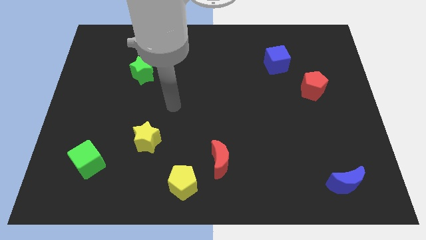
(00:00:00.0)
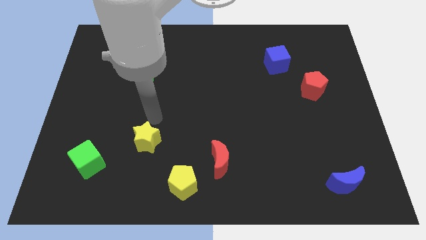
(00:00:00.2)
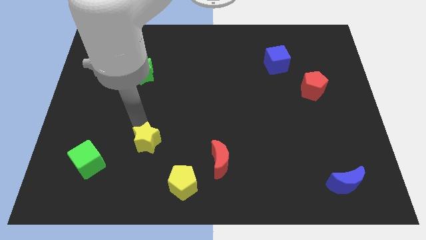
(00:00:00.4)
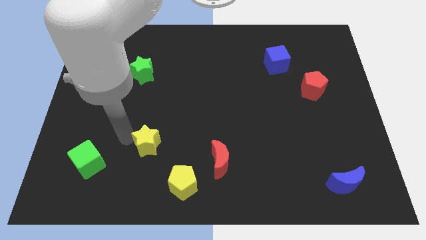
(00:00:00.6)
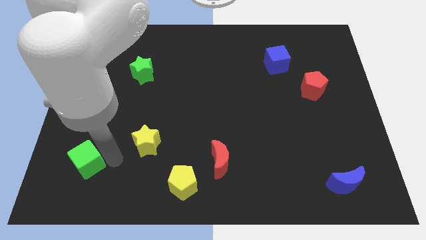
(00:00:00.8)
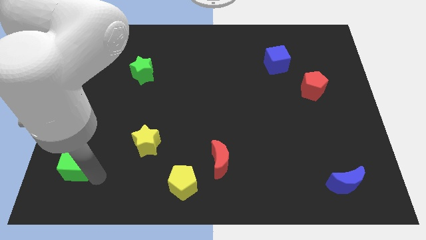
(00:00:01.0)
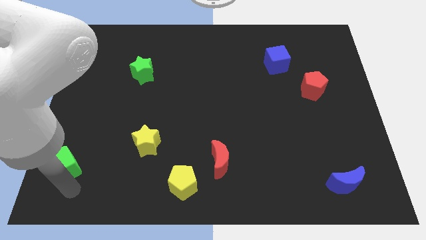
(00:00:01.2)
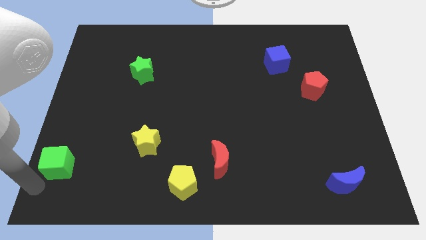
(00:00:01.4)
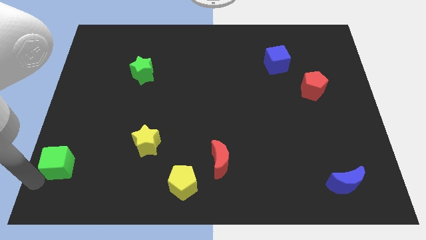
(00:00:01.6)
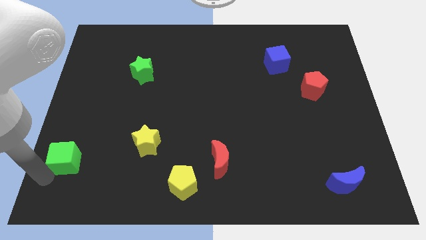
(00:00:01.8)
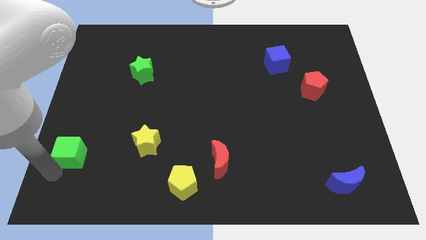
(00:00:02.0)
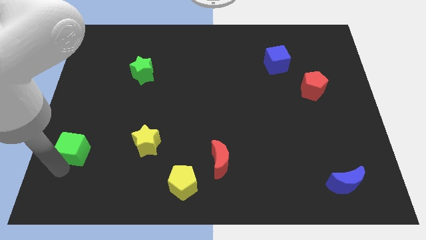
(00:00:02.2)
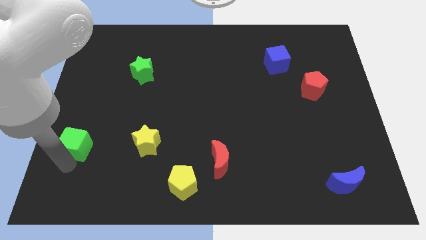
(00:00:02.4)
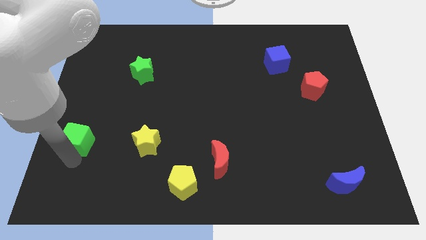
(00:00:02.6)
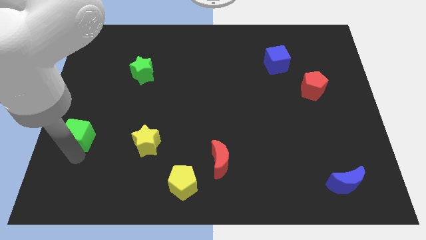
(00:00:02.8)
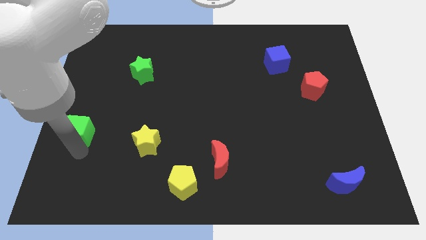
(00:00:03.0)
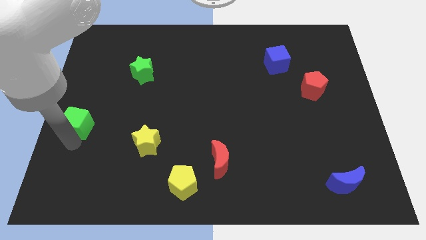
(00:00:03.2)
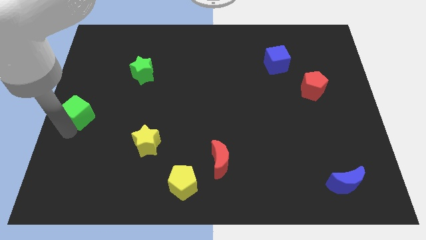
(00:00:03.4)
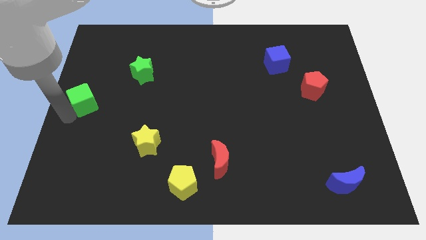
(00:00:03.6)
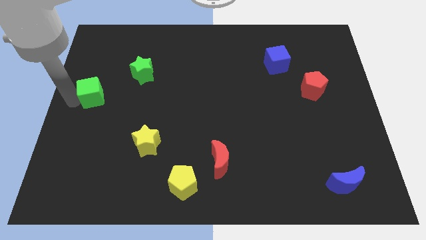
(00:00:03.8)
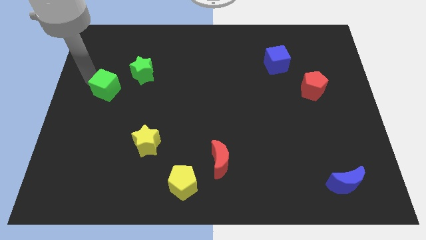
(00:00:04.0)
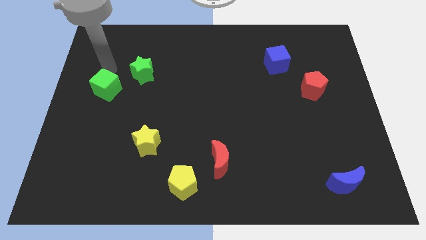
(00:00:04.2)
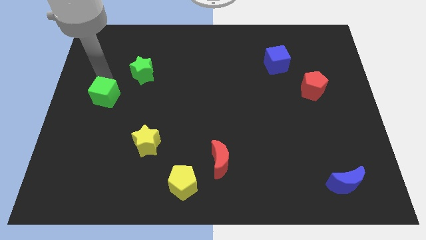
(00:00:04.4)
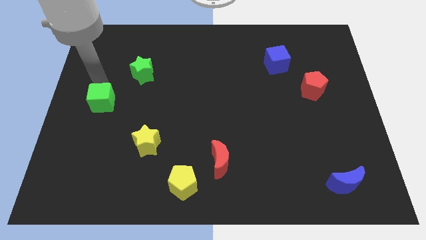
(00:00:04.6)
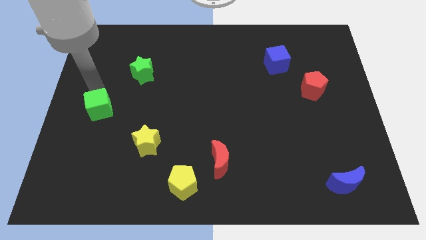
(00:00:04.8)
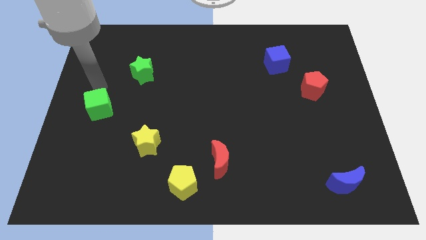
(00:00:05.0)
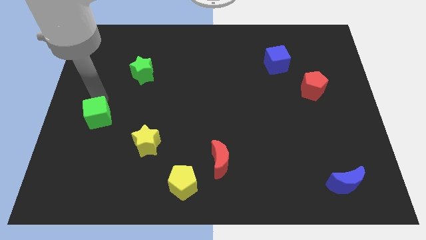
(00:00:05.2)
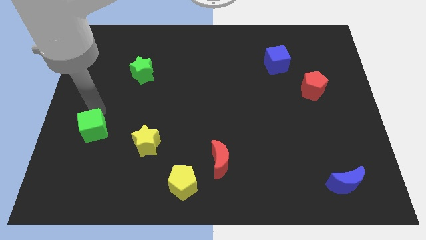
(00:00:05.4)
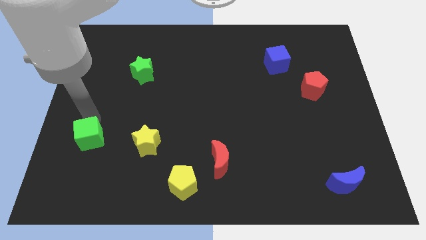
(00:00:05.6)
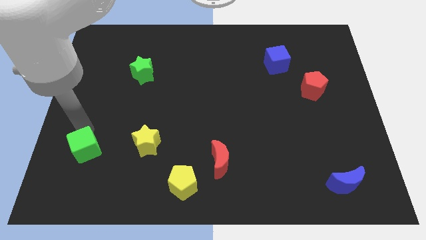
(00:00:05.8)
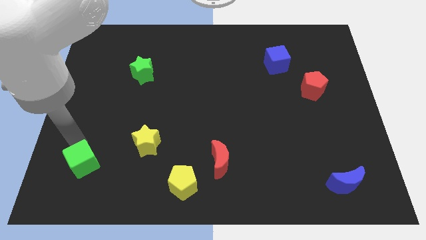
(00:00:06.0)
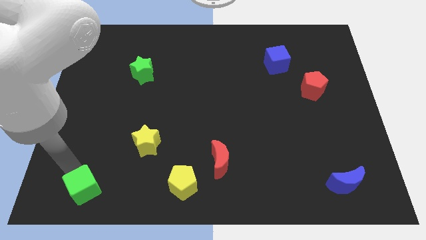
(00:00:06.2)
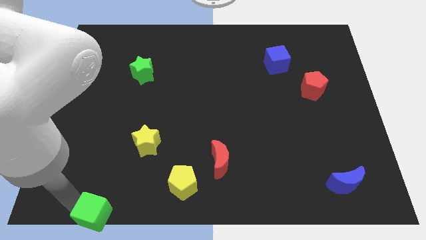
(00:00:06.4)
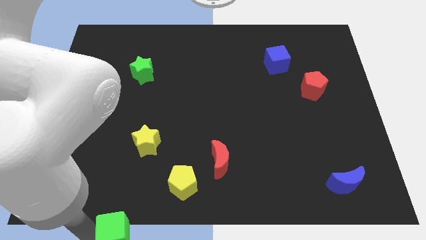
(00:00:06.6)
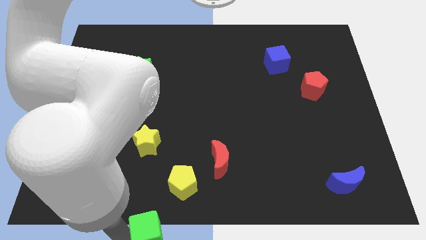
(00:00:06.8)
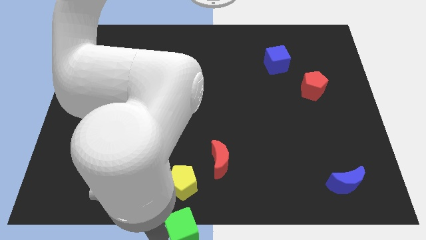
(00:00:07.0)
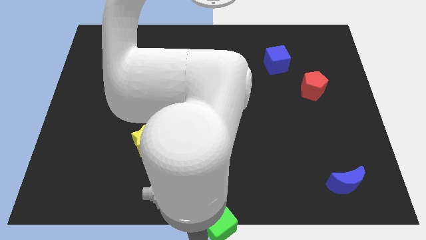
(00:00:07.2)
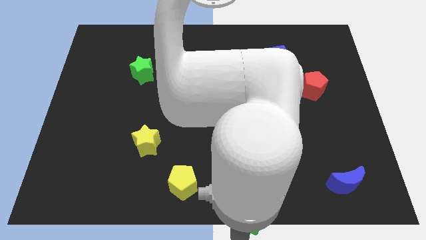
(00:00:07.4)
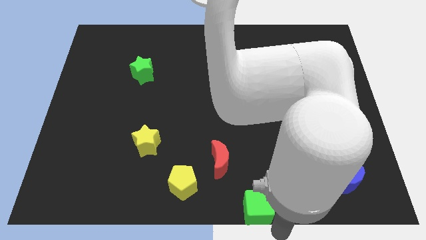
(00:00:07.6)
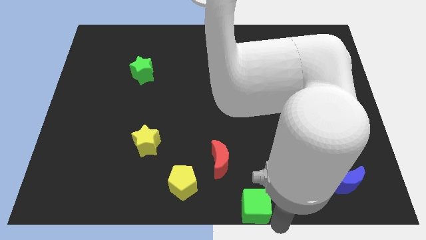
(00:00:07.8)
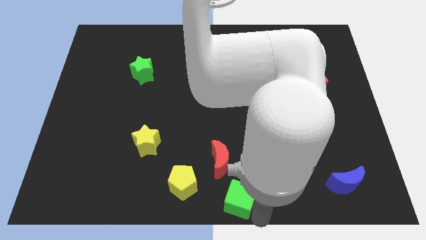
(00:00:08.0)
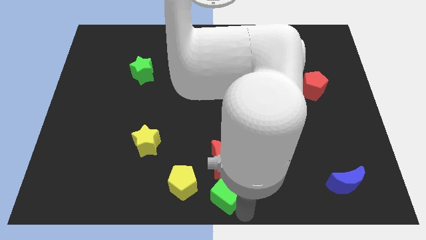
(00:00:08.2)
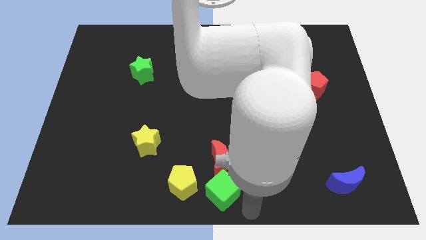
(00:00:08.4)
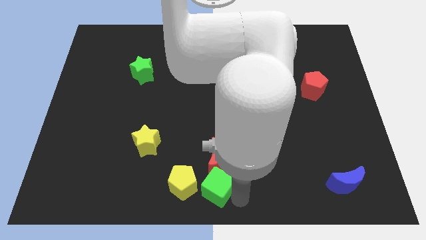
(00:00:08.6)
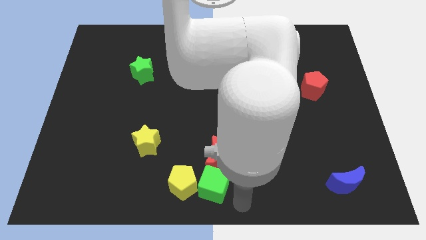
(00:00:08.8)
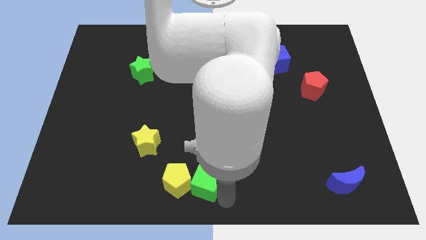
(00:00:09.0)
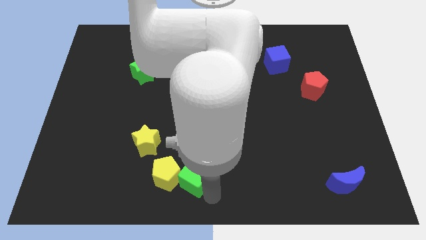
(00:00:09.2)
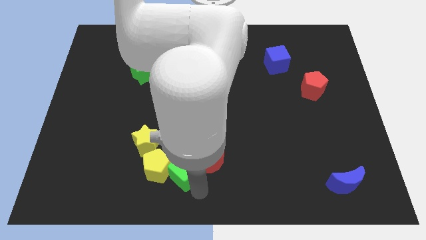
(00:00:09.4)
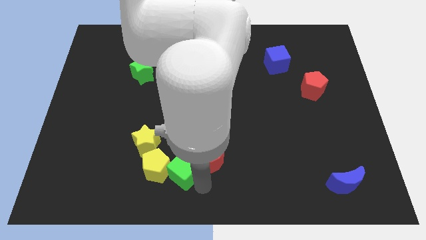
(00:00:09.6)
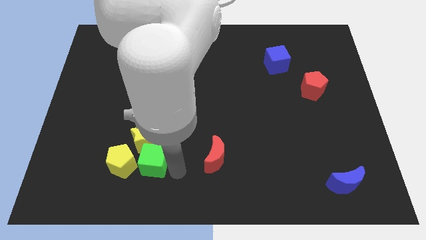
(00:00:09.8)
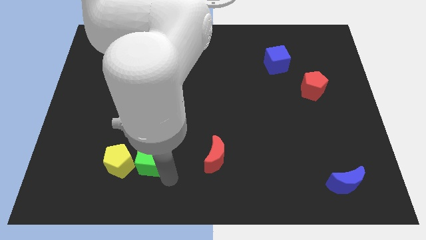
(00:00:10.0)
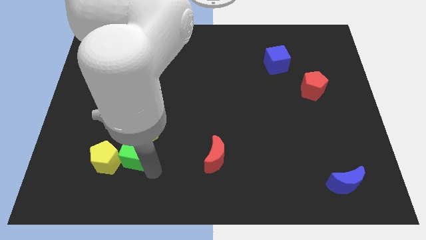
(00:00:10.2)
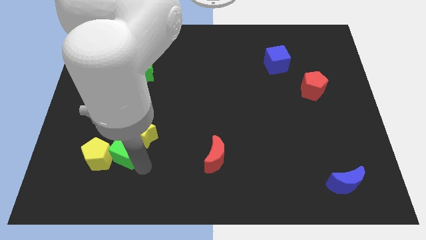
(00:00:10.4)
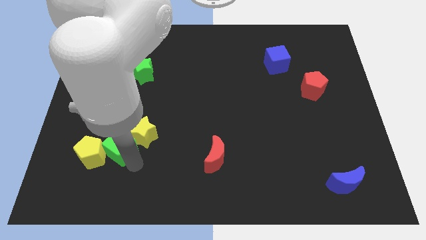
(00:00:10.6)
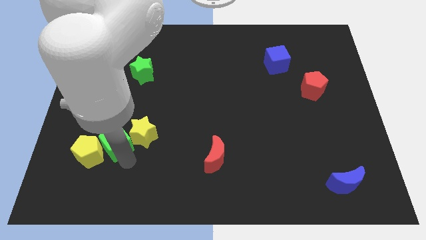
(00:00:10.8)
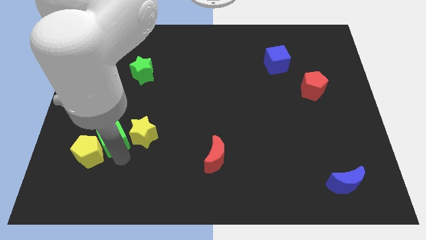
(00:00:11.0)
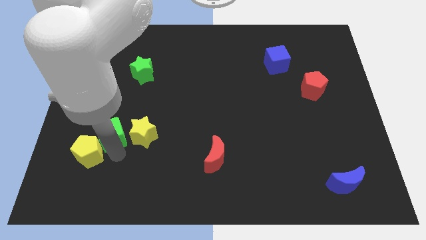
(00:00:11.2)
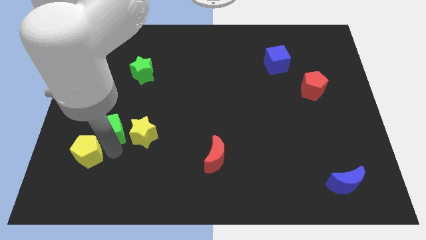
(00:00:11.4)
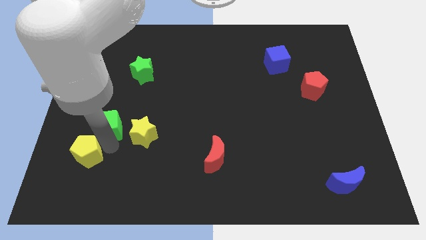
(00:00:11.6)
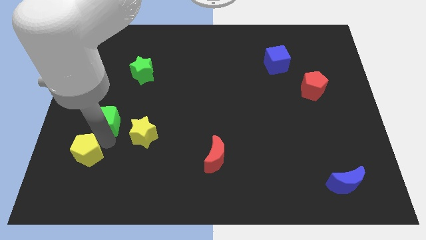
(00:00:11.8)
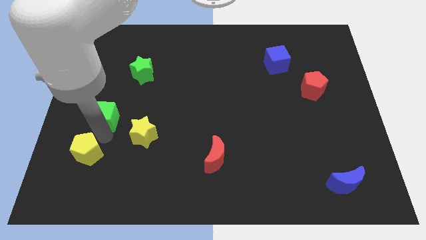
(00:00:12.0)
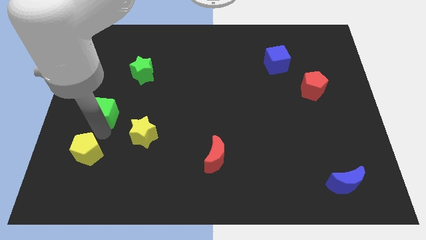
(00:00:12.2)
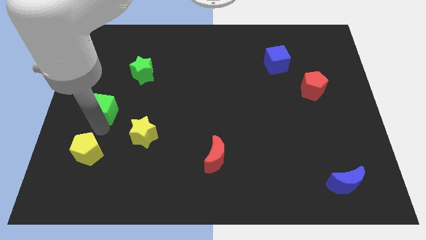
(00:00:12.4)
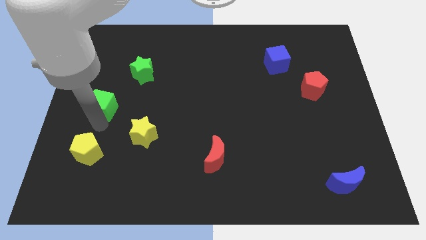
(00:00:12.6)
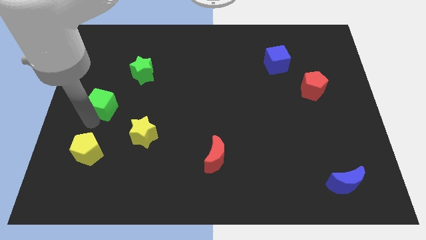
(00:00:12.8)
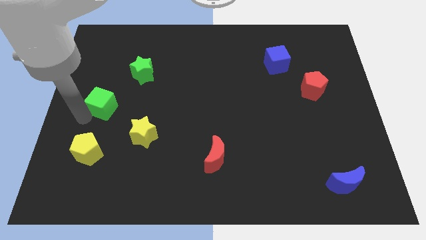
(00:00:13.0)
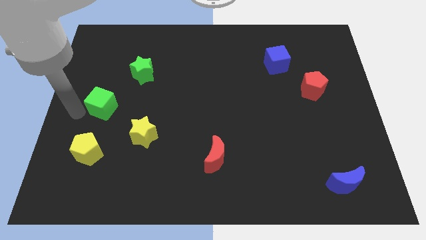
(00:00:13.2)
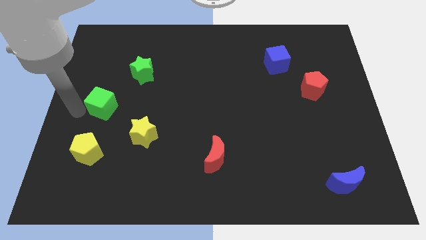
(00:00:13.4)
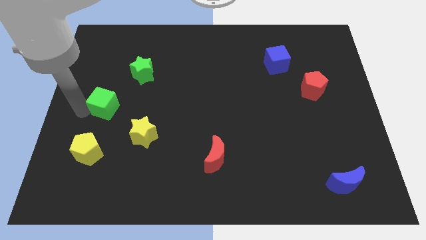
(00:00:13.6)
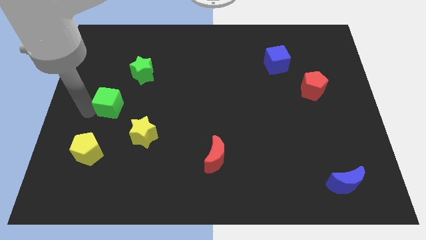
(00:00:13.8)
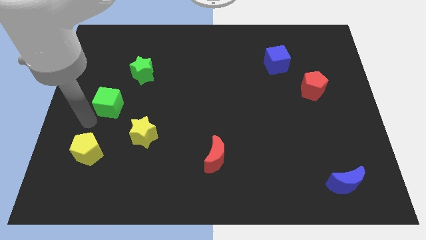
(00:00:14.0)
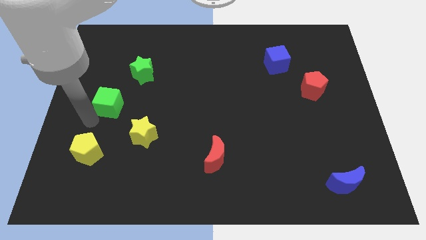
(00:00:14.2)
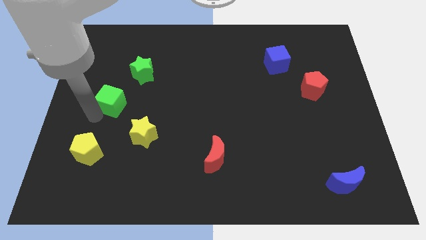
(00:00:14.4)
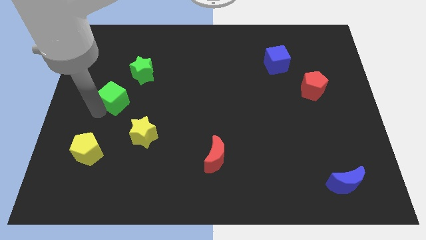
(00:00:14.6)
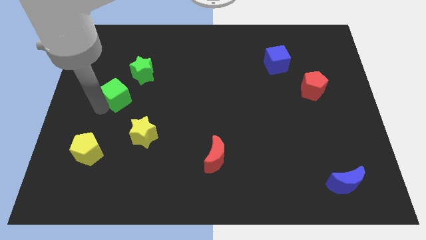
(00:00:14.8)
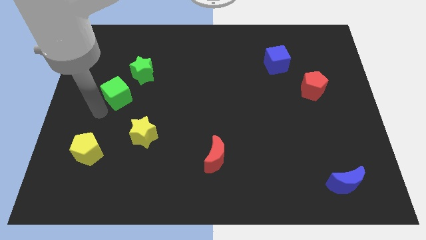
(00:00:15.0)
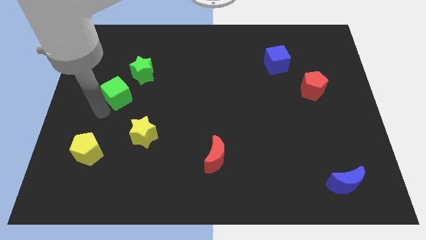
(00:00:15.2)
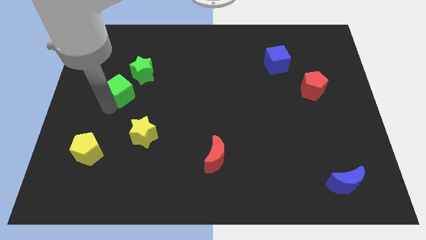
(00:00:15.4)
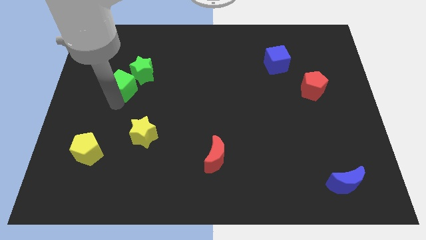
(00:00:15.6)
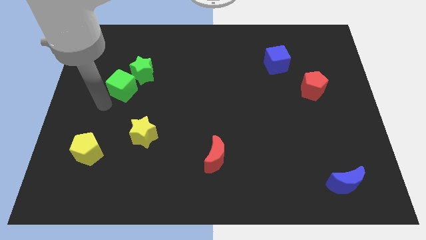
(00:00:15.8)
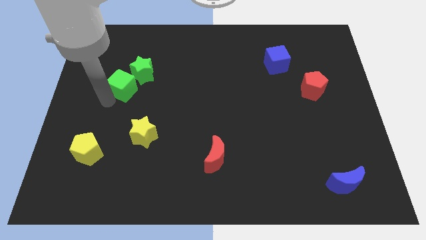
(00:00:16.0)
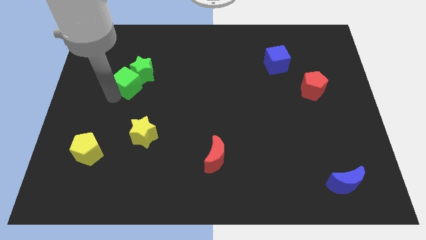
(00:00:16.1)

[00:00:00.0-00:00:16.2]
put the green cube to the green star
